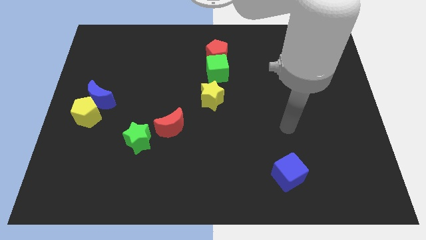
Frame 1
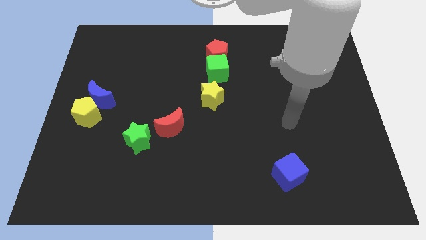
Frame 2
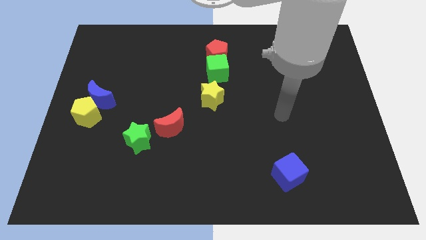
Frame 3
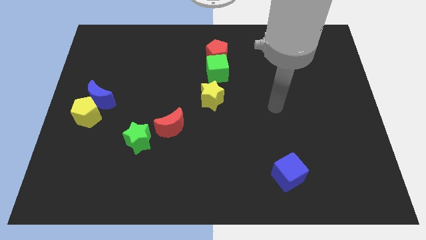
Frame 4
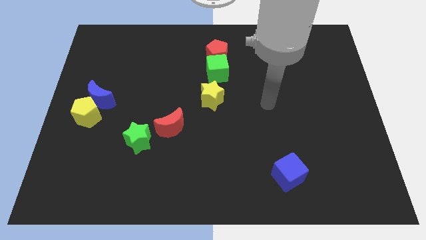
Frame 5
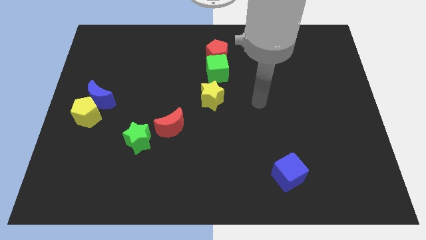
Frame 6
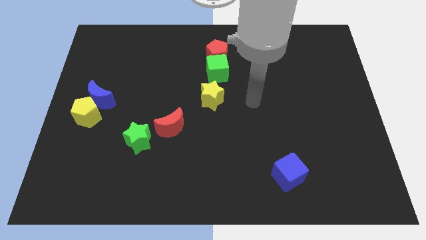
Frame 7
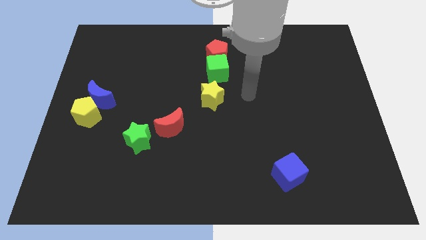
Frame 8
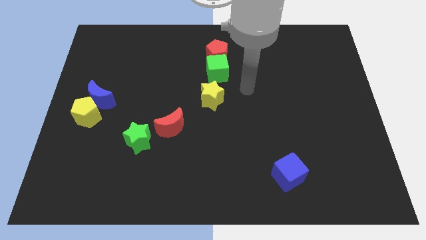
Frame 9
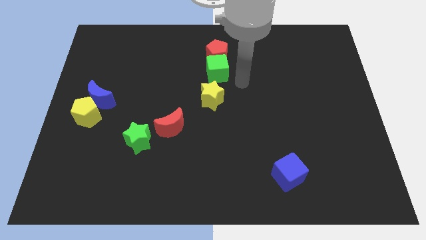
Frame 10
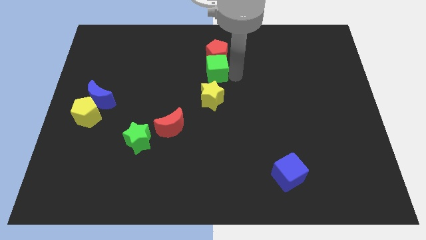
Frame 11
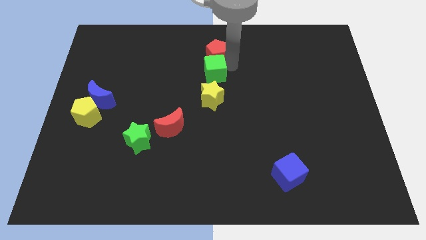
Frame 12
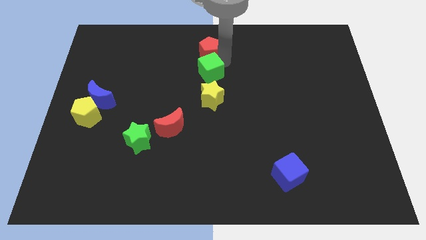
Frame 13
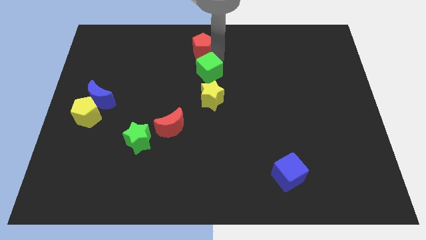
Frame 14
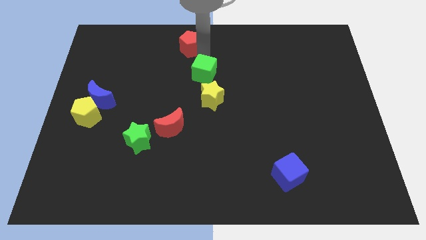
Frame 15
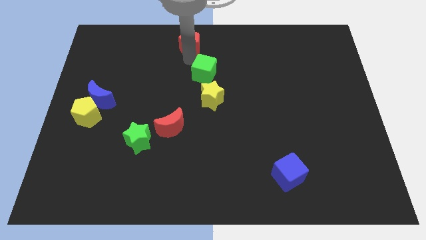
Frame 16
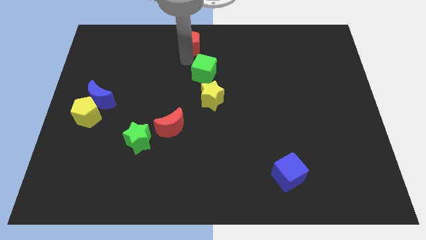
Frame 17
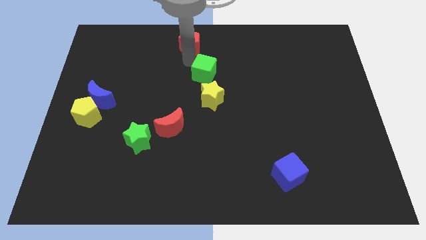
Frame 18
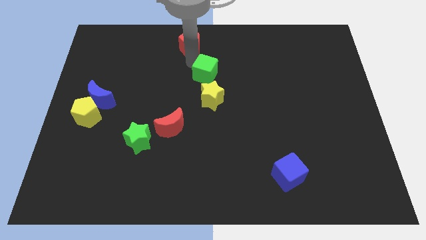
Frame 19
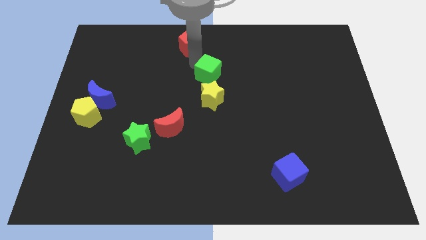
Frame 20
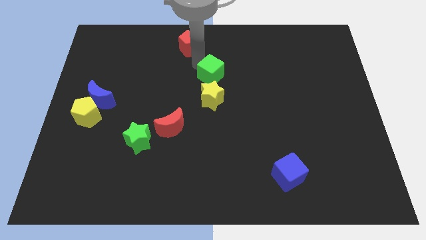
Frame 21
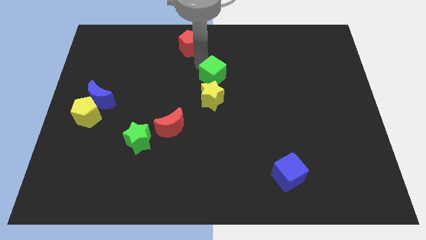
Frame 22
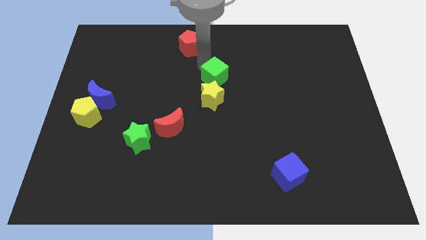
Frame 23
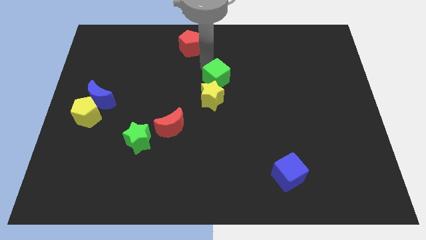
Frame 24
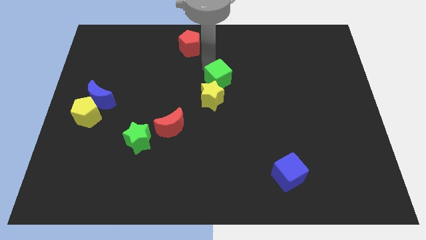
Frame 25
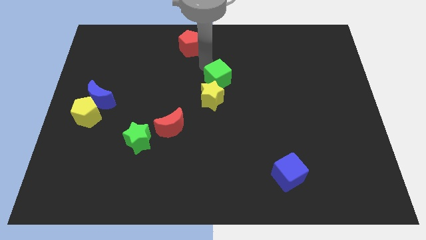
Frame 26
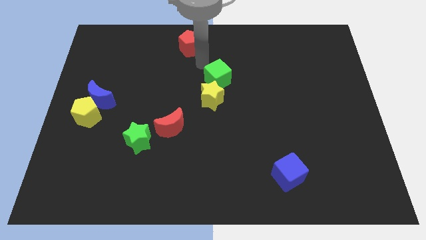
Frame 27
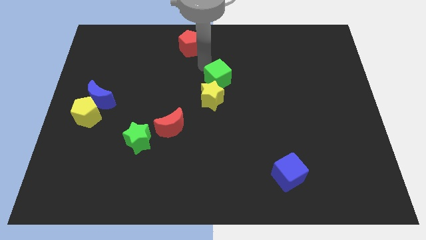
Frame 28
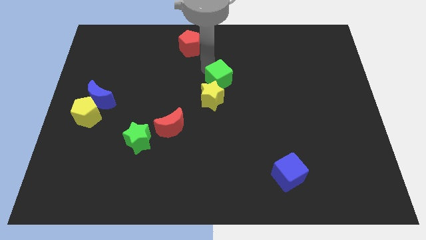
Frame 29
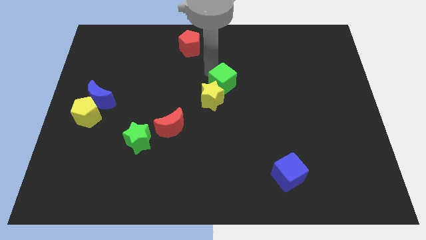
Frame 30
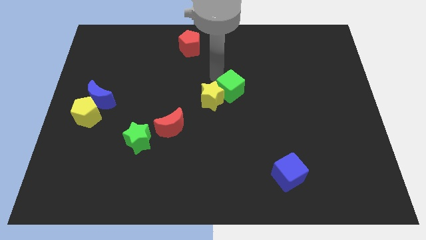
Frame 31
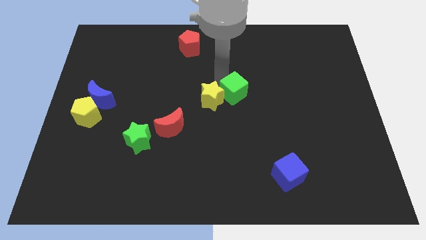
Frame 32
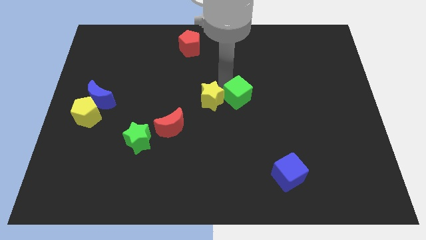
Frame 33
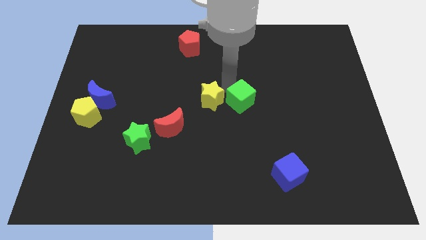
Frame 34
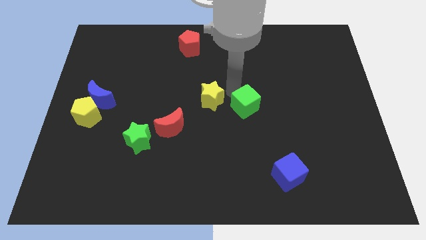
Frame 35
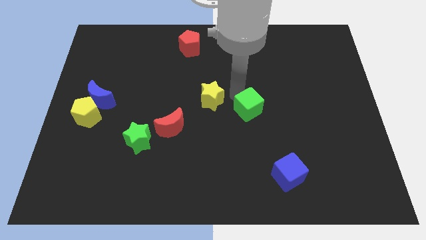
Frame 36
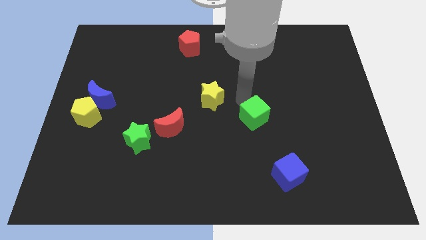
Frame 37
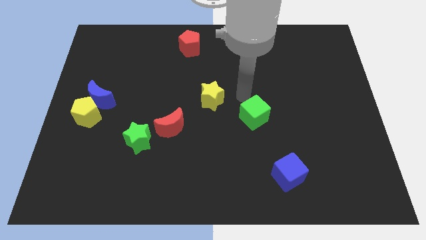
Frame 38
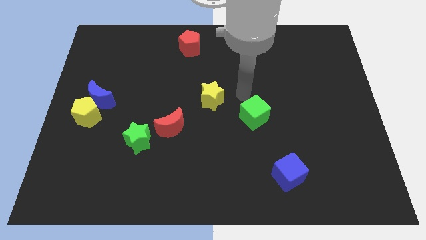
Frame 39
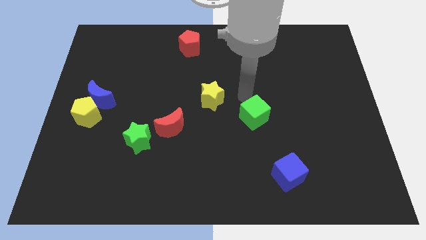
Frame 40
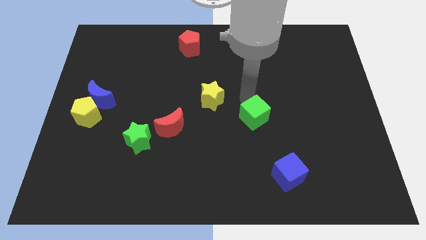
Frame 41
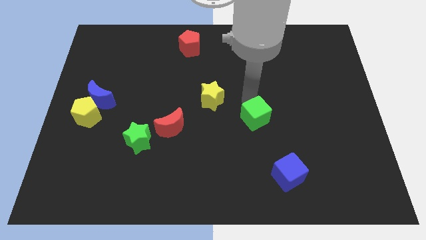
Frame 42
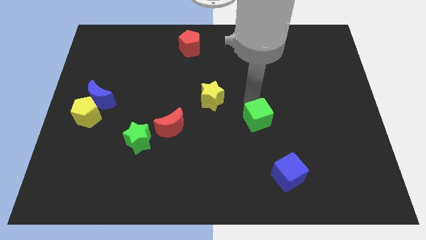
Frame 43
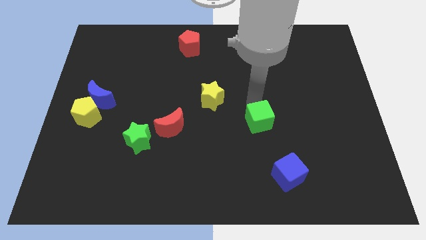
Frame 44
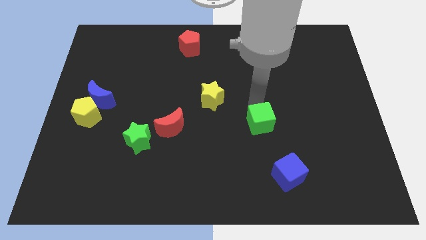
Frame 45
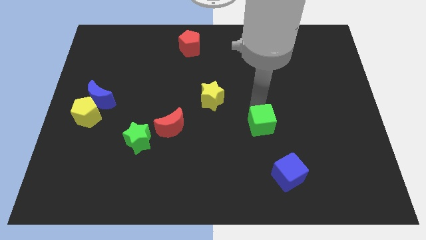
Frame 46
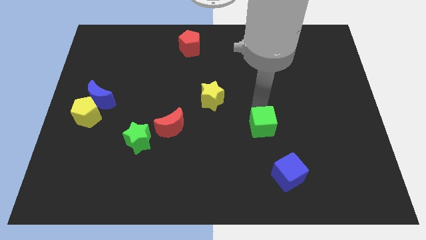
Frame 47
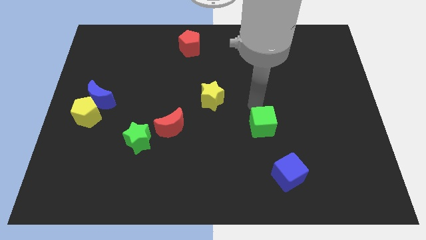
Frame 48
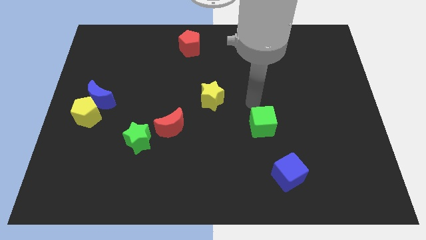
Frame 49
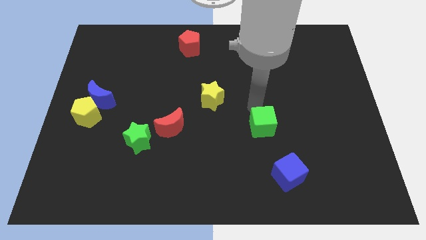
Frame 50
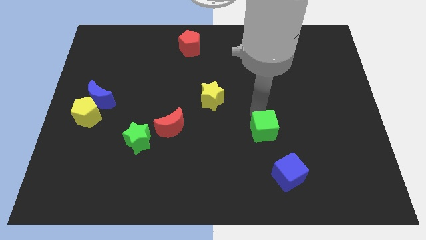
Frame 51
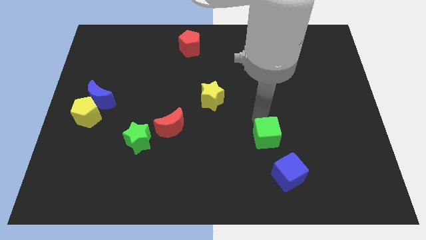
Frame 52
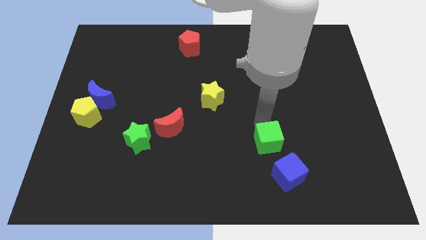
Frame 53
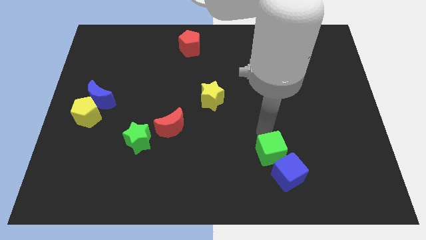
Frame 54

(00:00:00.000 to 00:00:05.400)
move the green cube to the blue cube

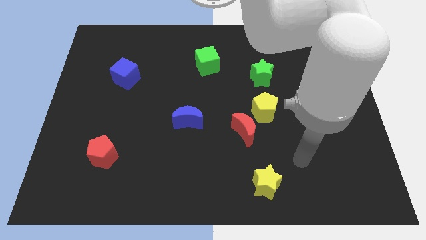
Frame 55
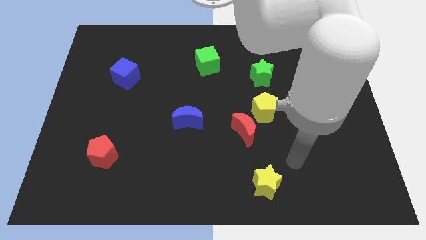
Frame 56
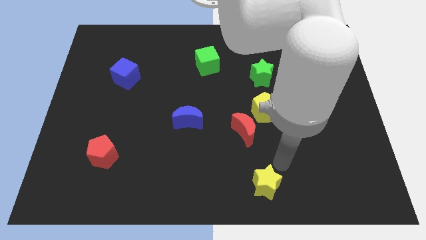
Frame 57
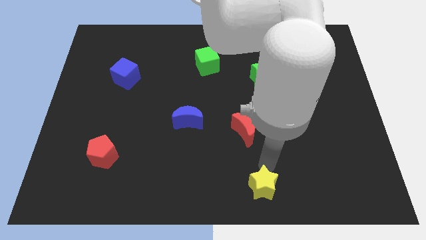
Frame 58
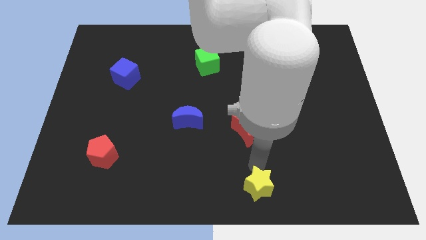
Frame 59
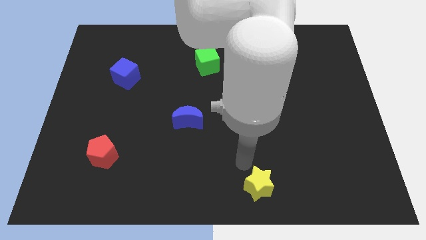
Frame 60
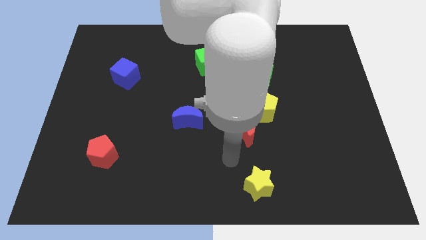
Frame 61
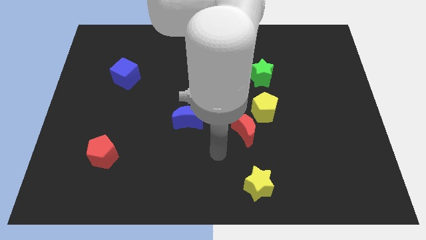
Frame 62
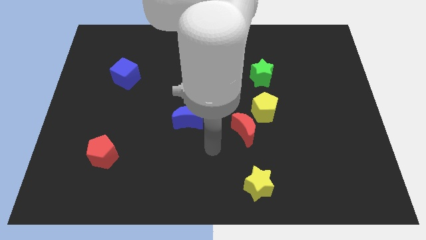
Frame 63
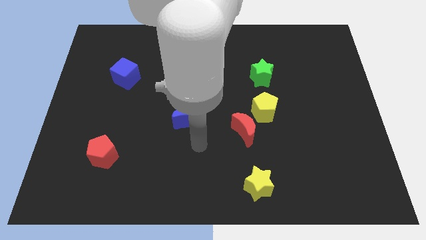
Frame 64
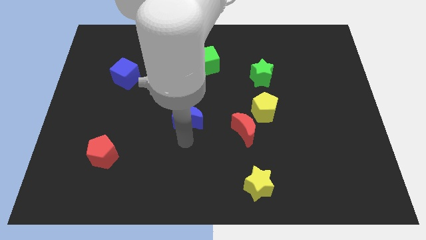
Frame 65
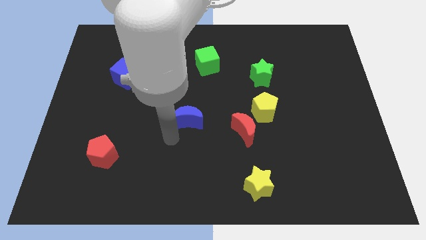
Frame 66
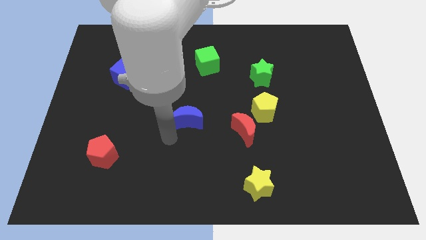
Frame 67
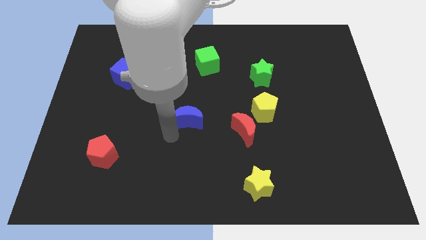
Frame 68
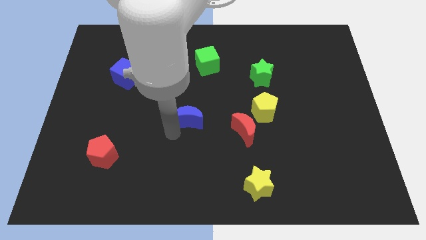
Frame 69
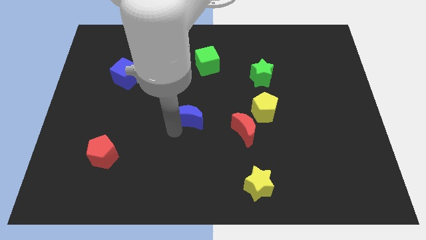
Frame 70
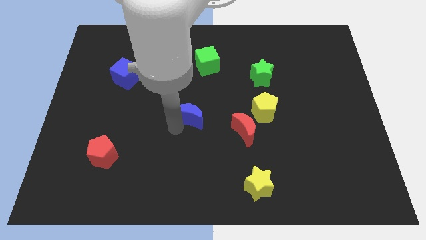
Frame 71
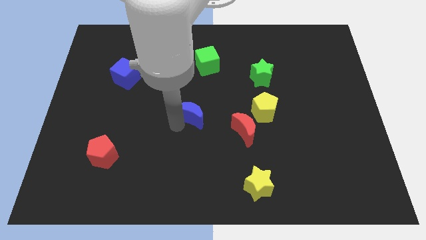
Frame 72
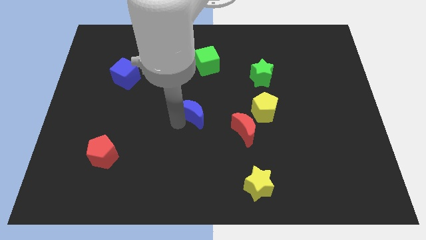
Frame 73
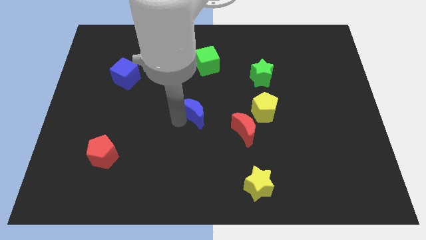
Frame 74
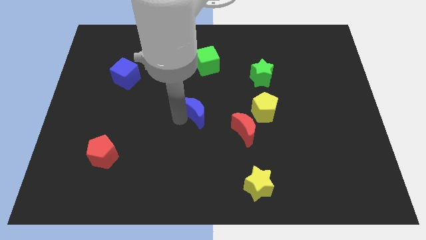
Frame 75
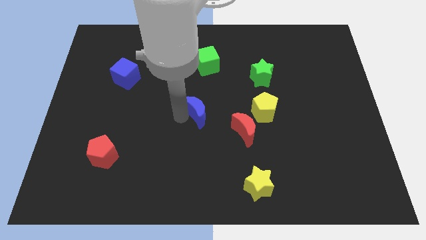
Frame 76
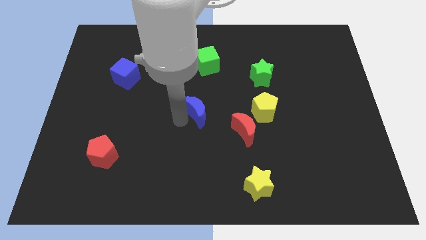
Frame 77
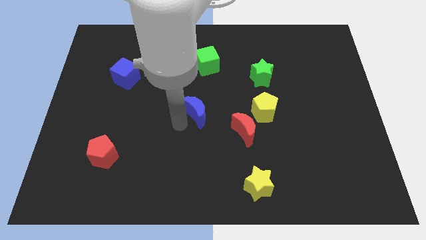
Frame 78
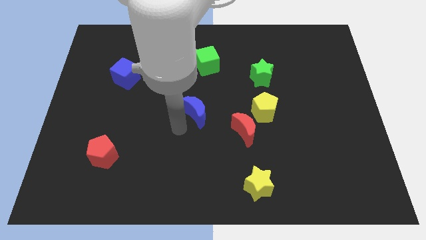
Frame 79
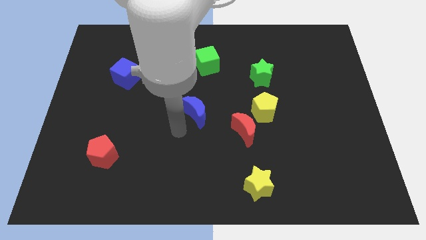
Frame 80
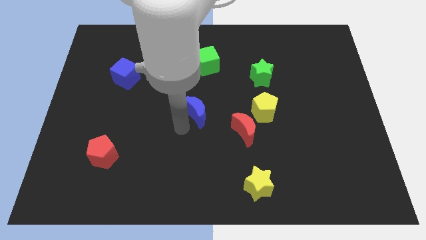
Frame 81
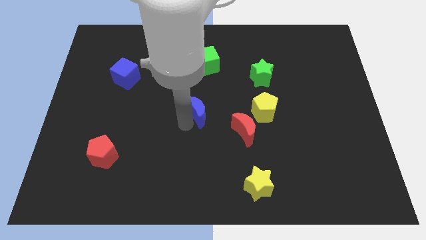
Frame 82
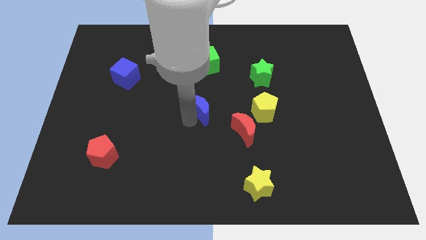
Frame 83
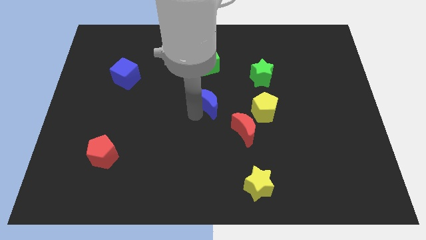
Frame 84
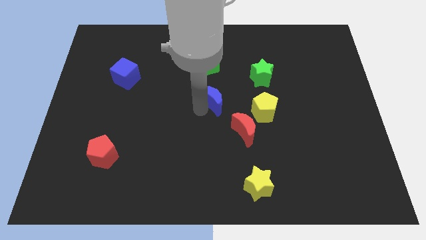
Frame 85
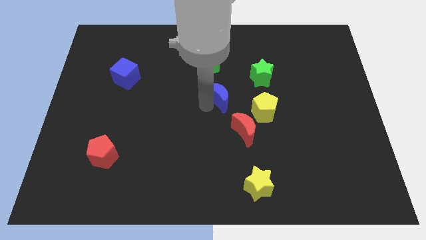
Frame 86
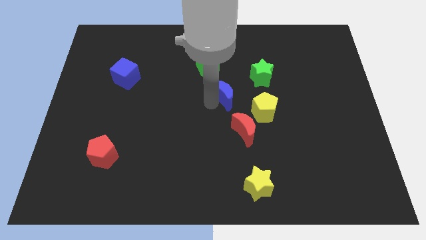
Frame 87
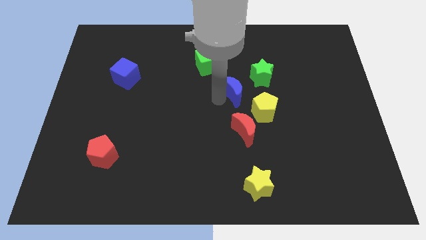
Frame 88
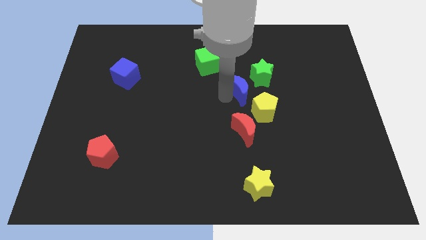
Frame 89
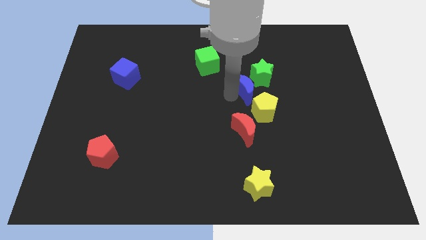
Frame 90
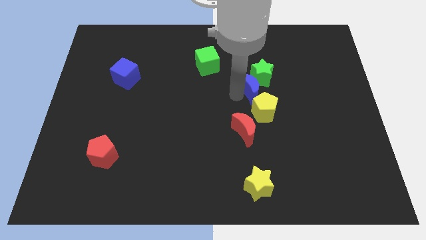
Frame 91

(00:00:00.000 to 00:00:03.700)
push the blue moon next to the green star
